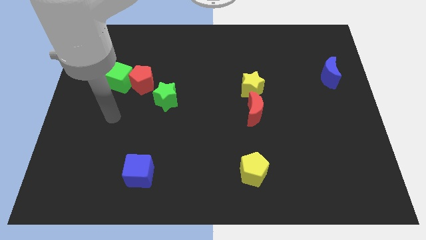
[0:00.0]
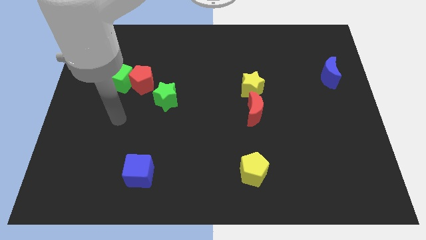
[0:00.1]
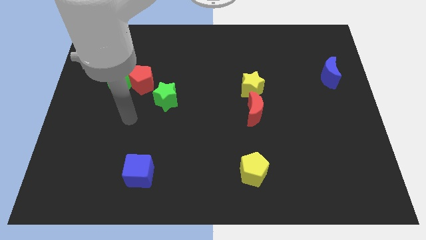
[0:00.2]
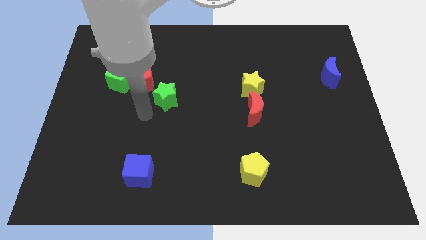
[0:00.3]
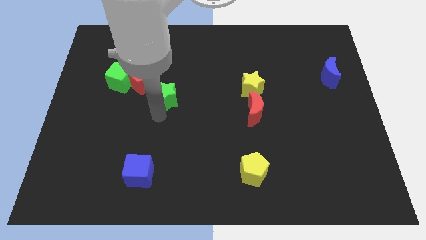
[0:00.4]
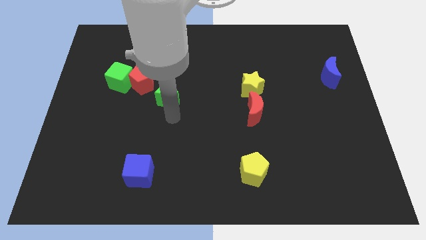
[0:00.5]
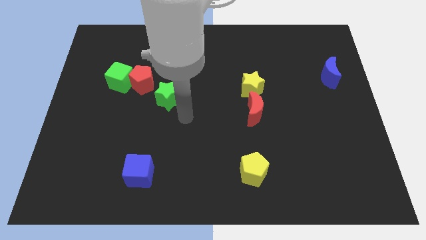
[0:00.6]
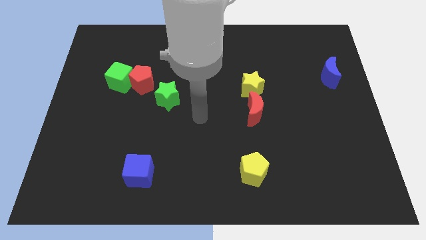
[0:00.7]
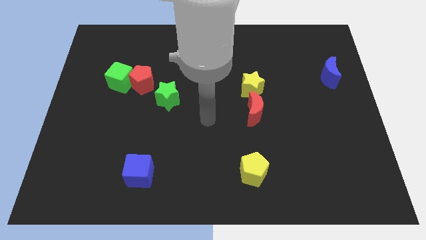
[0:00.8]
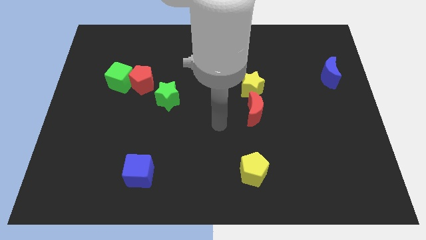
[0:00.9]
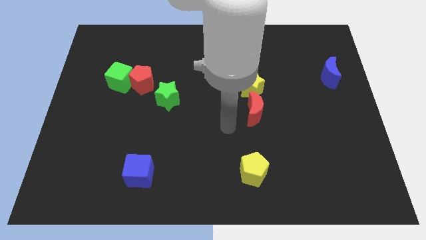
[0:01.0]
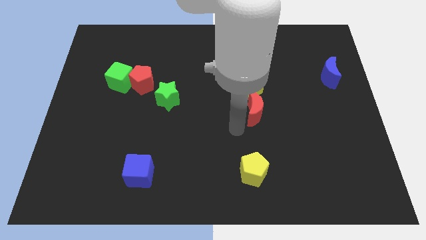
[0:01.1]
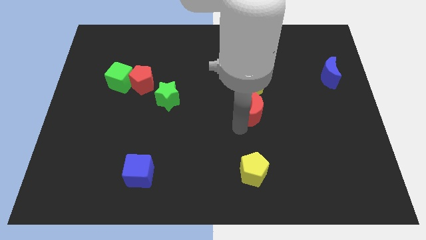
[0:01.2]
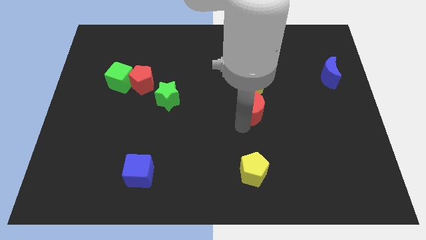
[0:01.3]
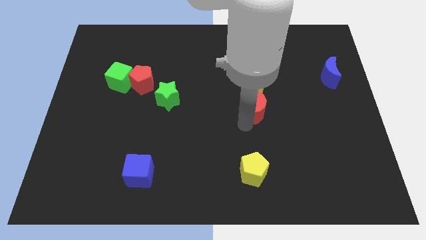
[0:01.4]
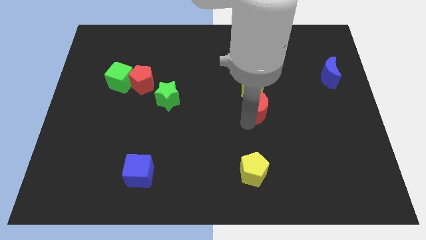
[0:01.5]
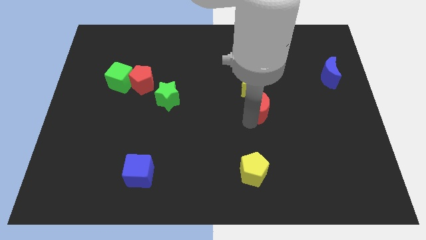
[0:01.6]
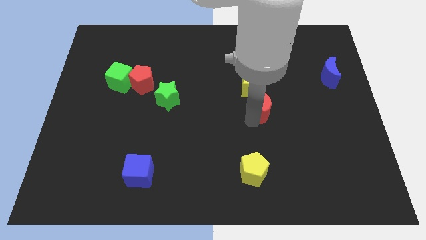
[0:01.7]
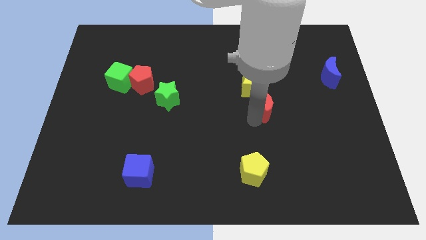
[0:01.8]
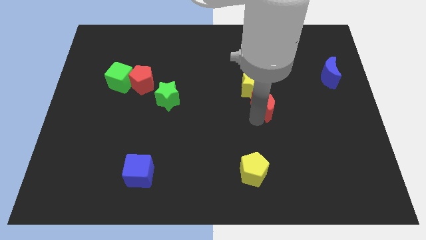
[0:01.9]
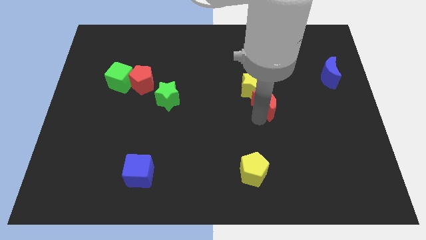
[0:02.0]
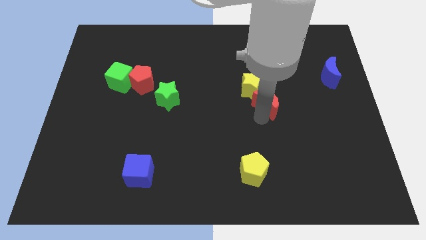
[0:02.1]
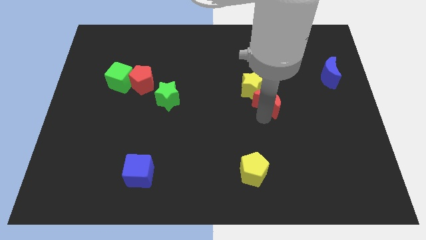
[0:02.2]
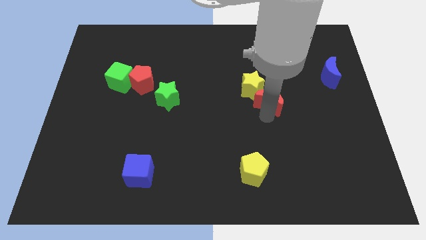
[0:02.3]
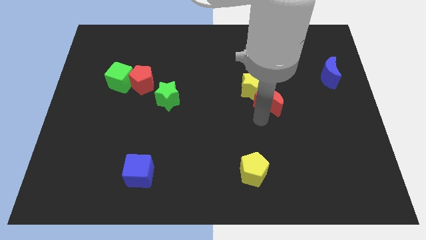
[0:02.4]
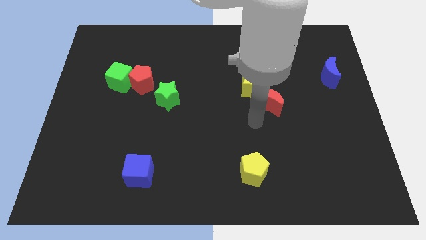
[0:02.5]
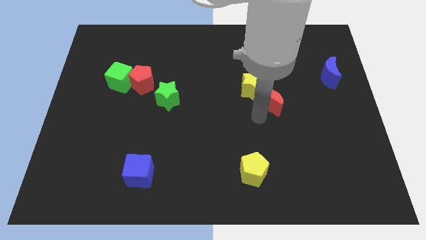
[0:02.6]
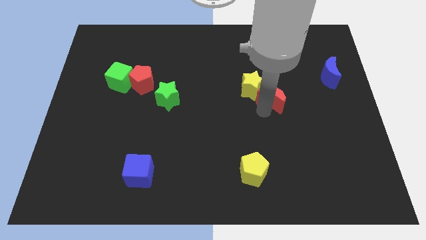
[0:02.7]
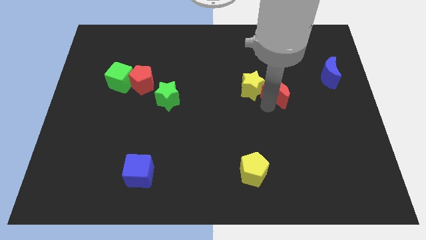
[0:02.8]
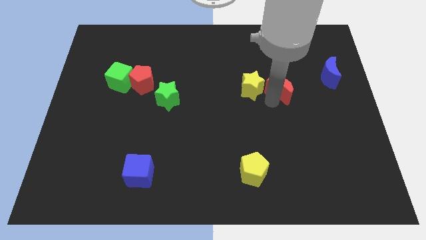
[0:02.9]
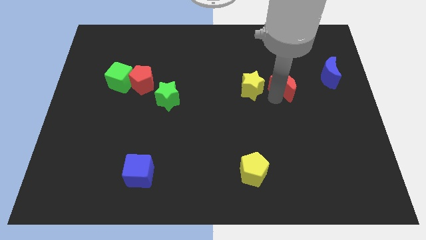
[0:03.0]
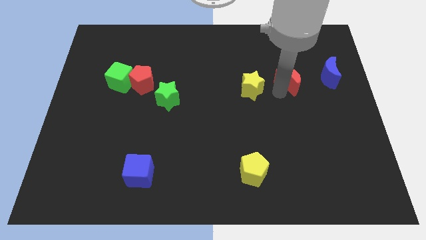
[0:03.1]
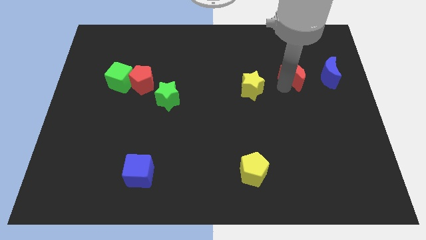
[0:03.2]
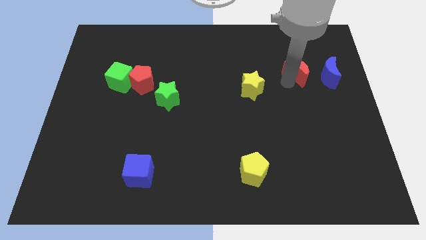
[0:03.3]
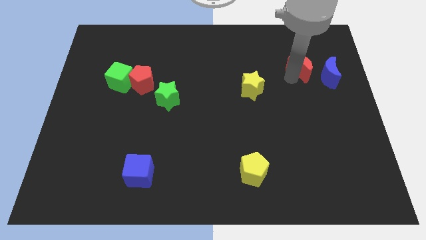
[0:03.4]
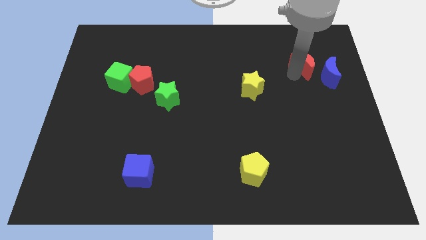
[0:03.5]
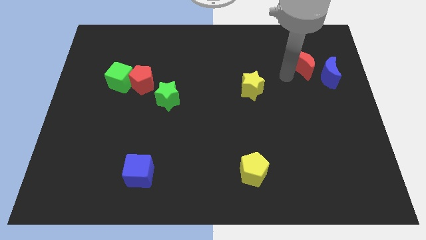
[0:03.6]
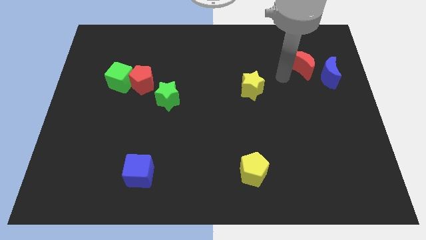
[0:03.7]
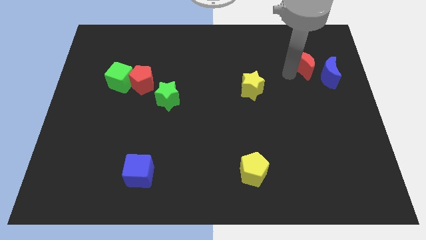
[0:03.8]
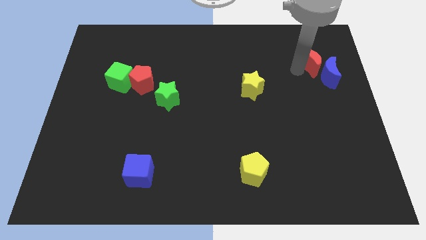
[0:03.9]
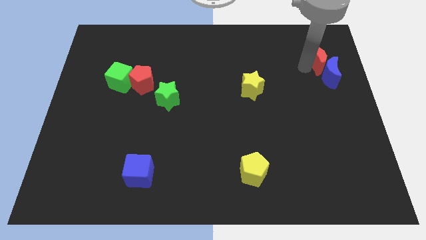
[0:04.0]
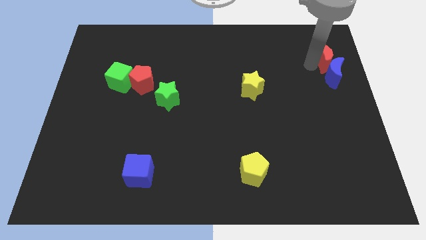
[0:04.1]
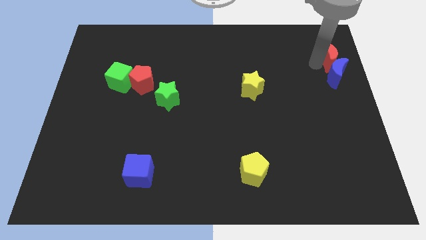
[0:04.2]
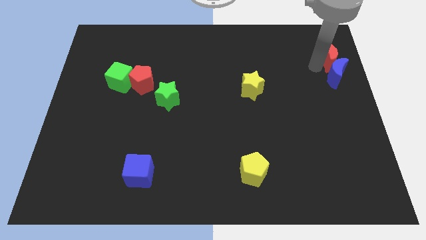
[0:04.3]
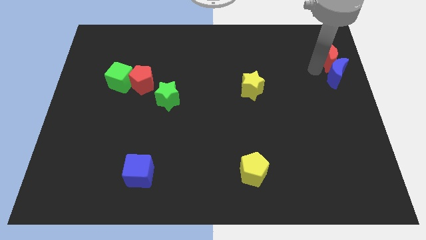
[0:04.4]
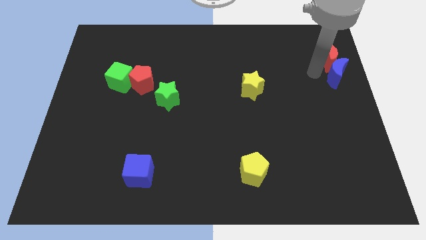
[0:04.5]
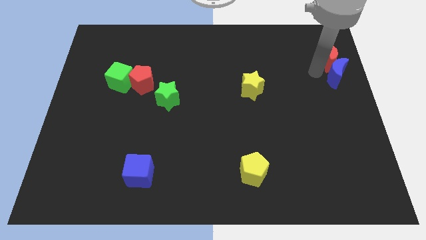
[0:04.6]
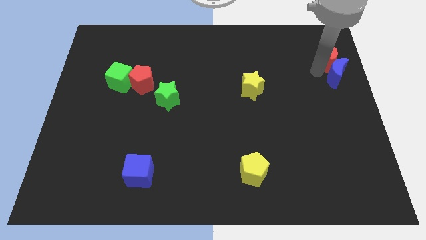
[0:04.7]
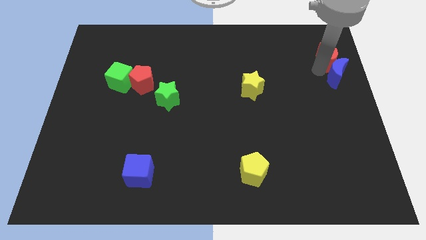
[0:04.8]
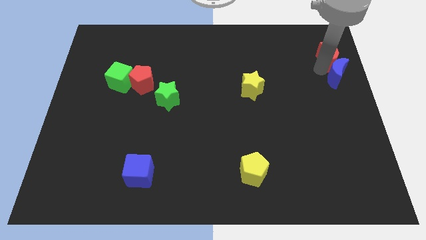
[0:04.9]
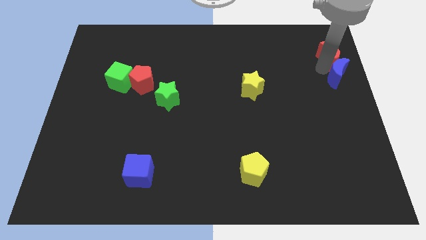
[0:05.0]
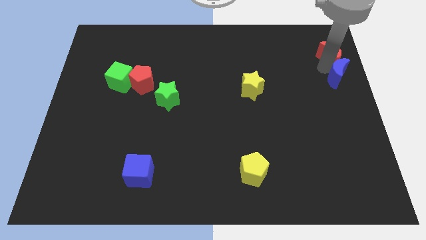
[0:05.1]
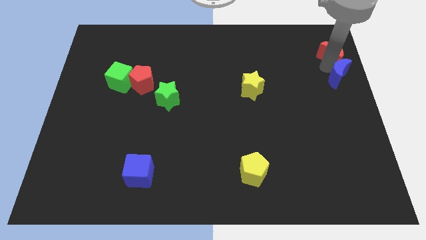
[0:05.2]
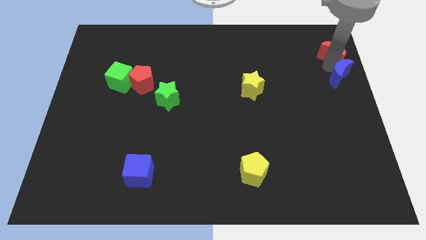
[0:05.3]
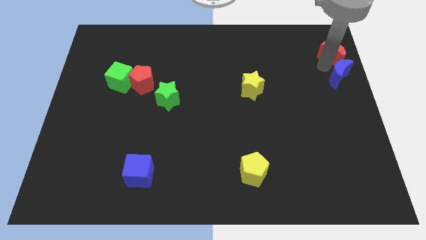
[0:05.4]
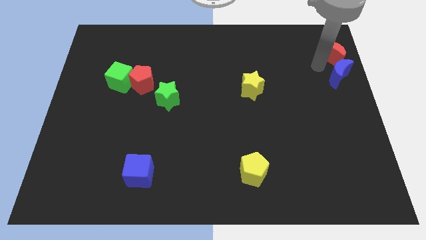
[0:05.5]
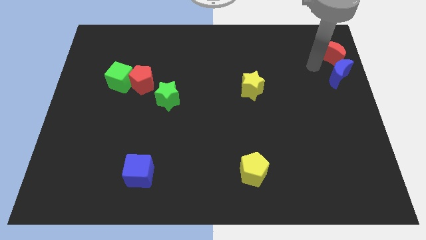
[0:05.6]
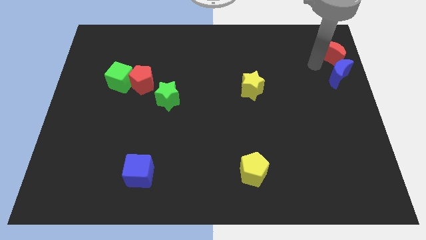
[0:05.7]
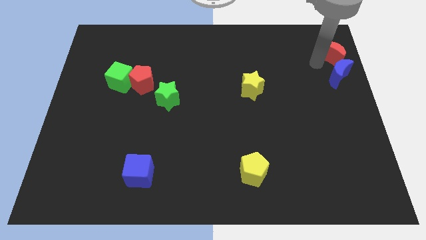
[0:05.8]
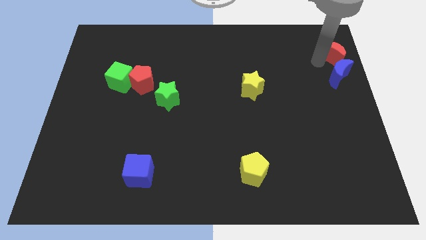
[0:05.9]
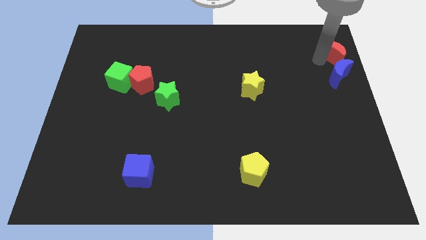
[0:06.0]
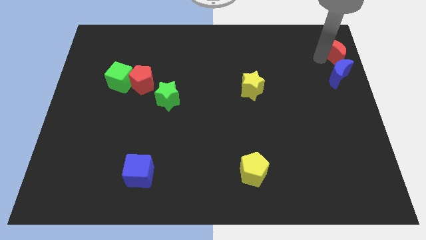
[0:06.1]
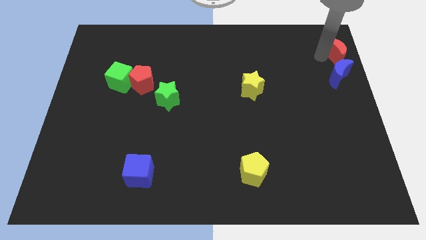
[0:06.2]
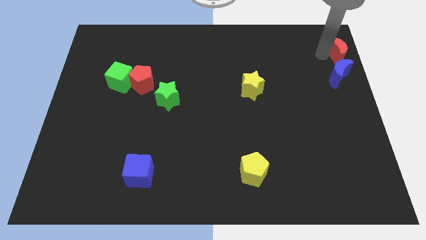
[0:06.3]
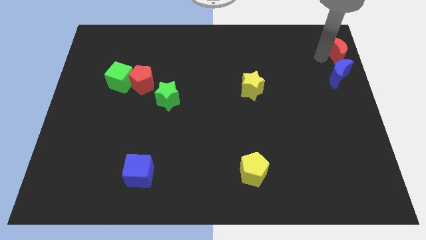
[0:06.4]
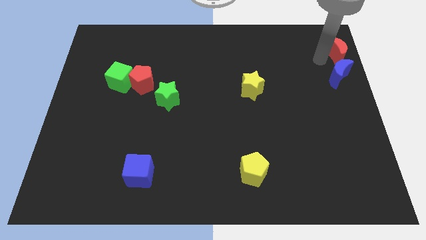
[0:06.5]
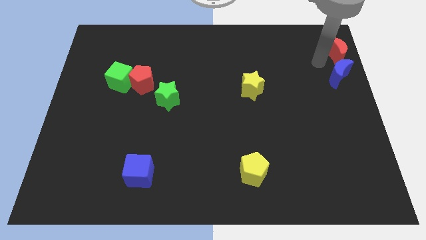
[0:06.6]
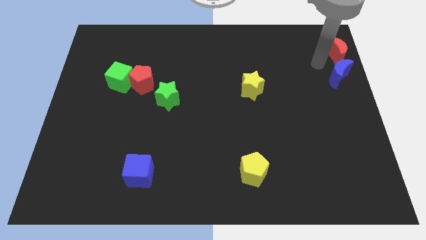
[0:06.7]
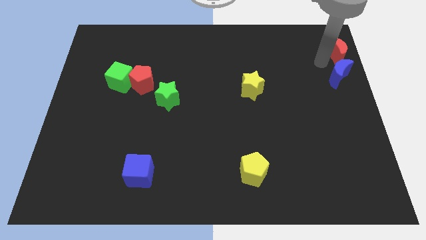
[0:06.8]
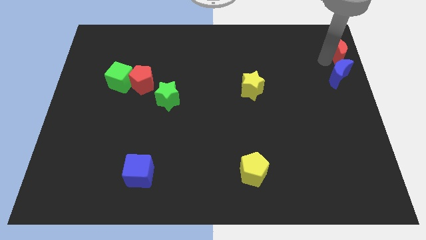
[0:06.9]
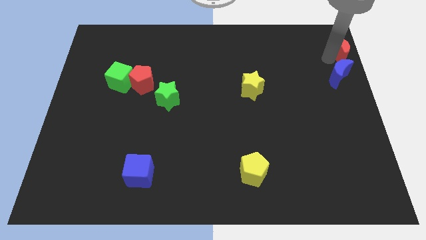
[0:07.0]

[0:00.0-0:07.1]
put the red moon to the top right
